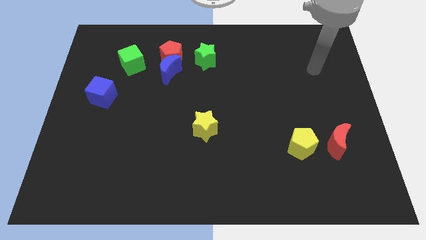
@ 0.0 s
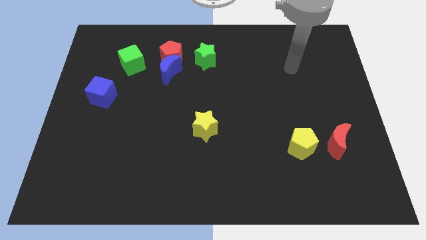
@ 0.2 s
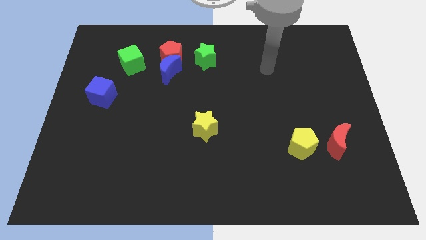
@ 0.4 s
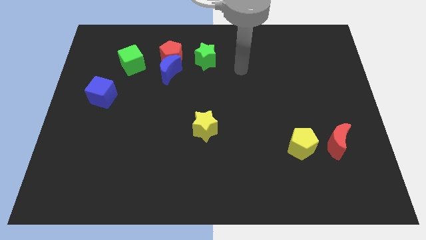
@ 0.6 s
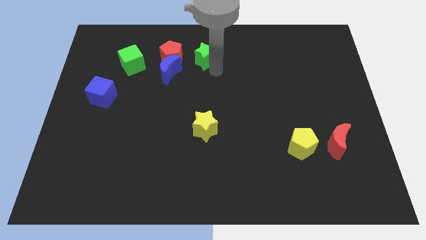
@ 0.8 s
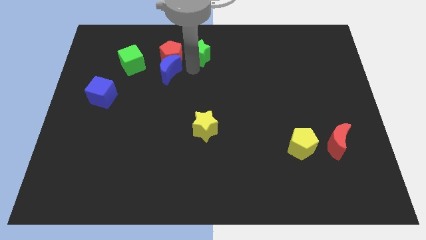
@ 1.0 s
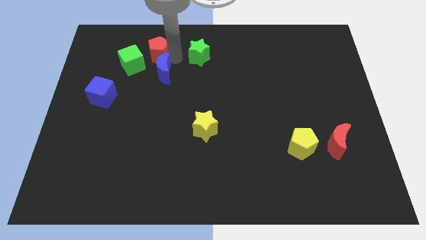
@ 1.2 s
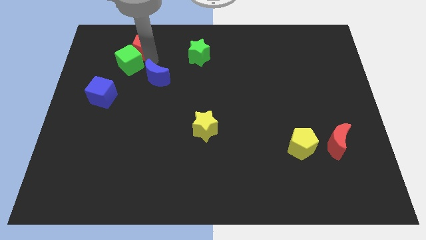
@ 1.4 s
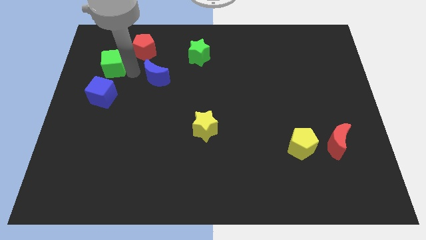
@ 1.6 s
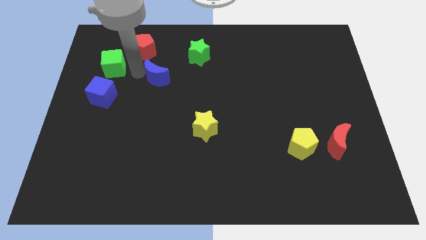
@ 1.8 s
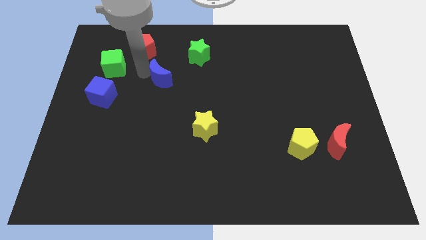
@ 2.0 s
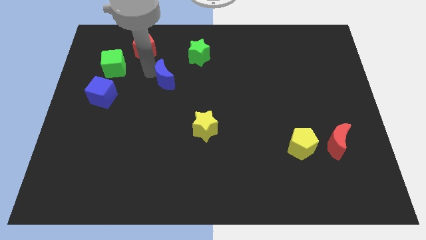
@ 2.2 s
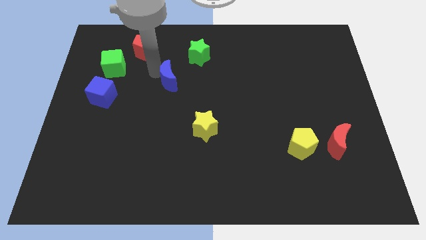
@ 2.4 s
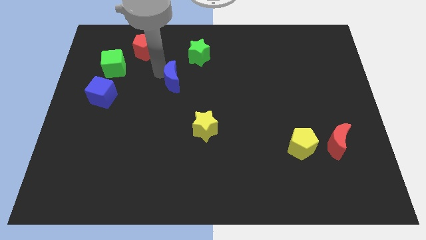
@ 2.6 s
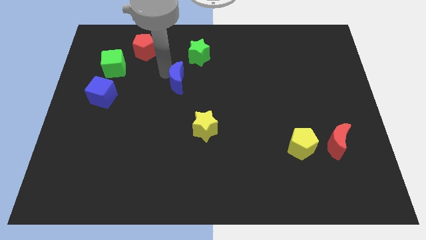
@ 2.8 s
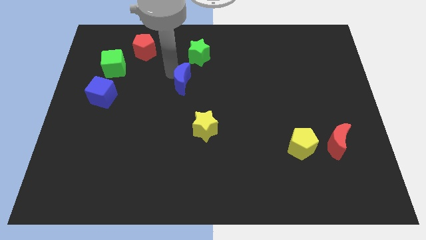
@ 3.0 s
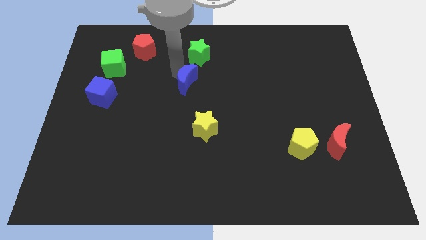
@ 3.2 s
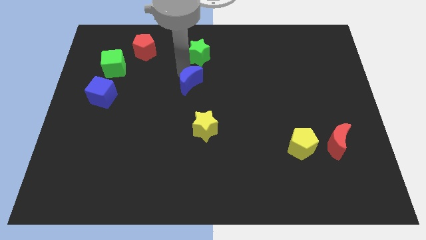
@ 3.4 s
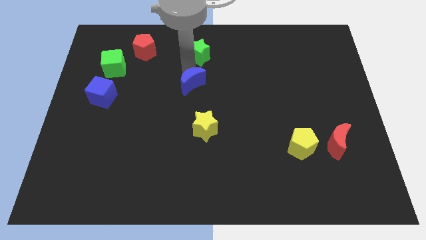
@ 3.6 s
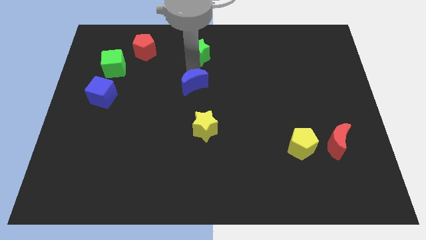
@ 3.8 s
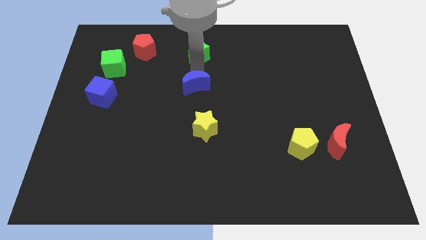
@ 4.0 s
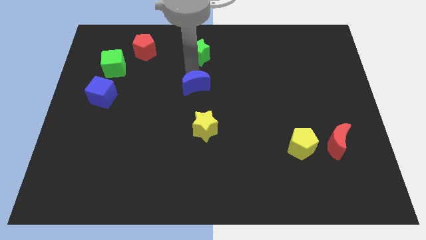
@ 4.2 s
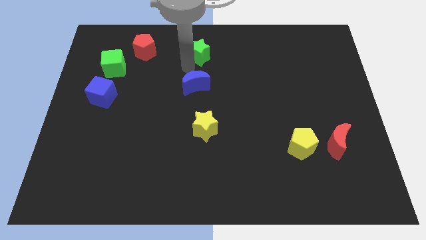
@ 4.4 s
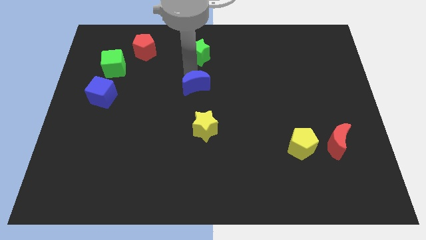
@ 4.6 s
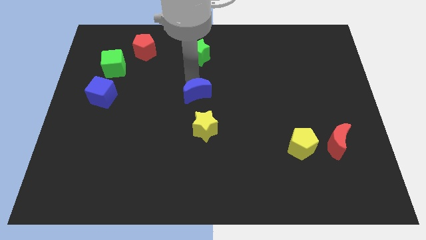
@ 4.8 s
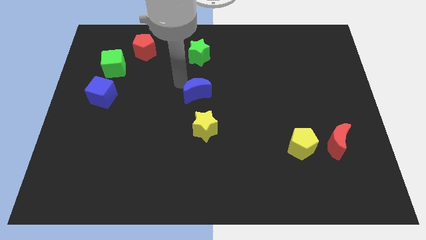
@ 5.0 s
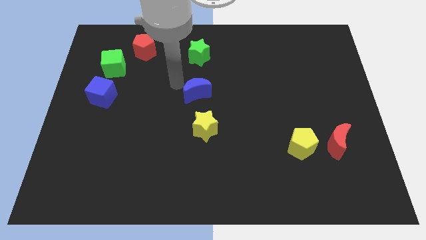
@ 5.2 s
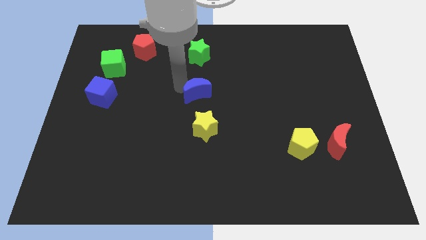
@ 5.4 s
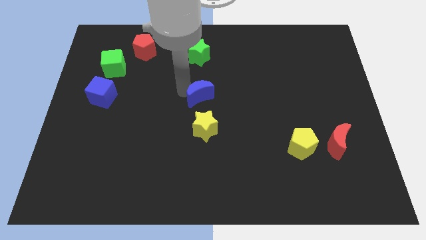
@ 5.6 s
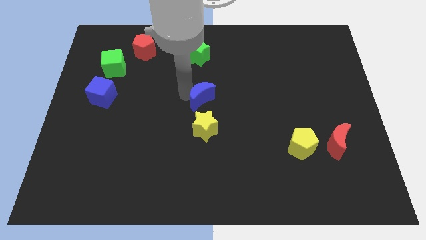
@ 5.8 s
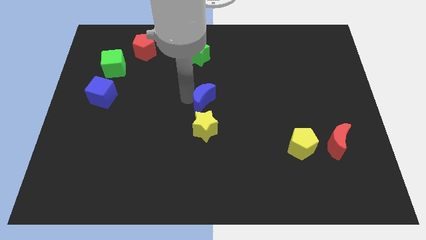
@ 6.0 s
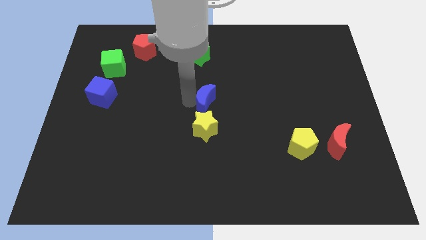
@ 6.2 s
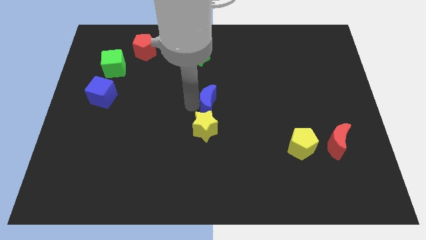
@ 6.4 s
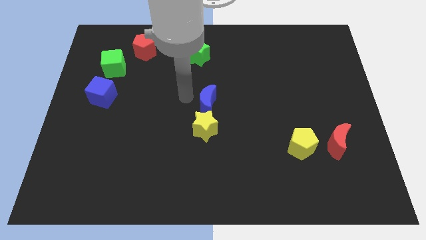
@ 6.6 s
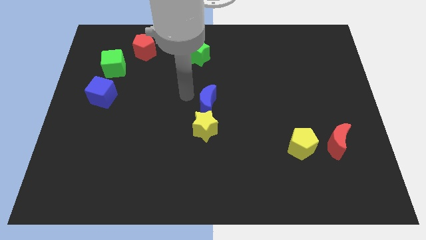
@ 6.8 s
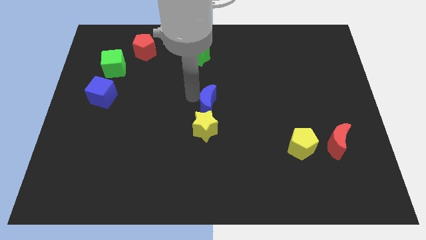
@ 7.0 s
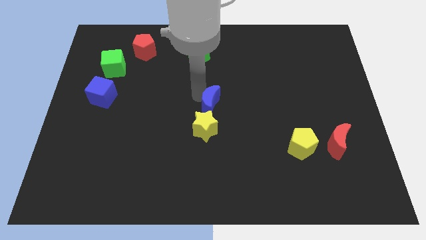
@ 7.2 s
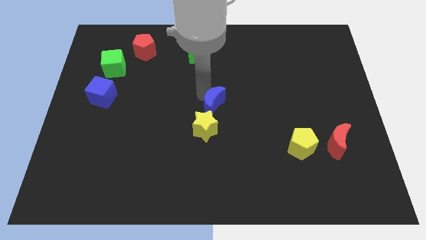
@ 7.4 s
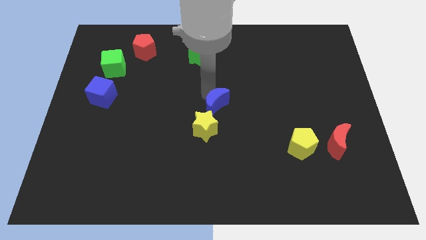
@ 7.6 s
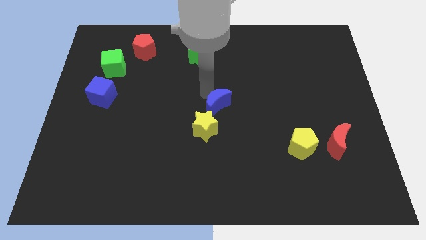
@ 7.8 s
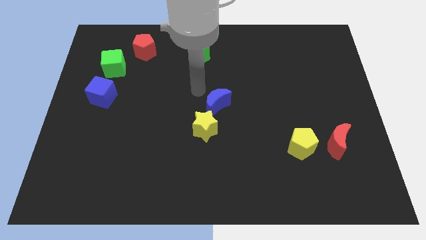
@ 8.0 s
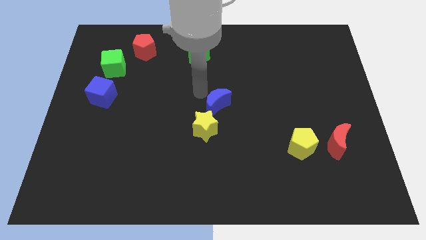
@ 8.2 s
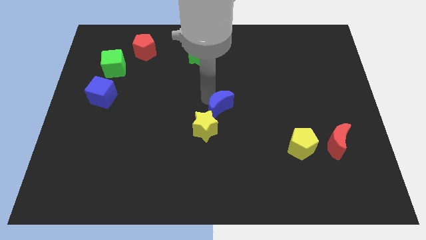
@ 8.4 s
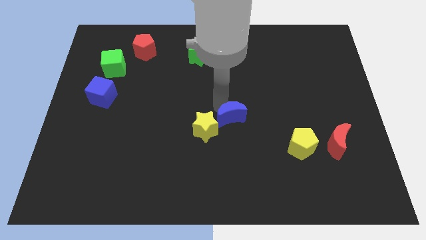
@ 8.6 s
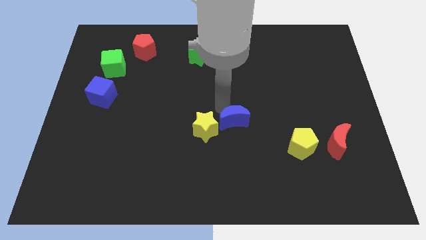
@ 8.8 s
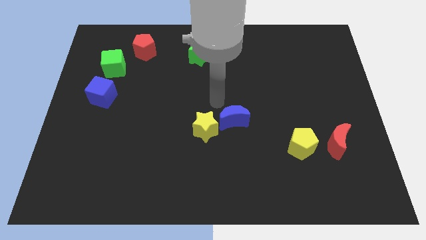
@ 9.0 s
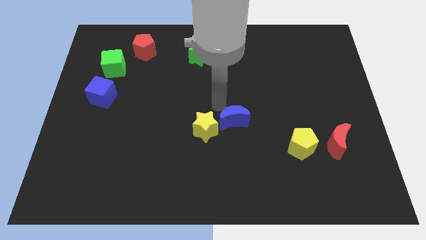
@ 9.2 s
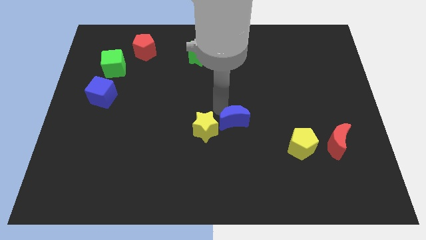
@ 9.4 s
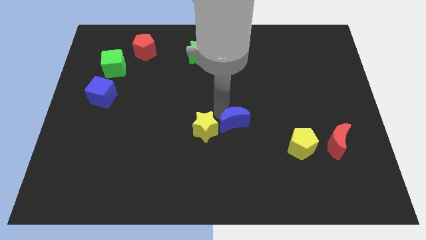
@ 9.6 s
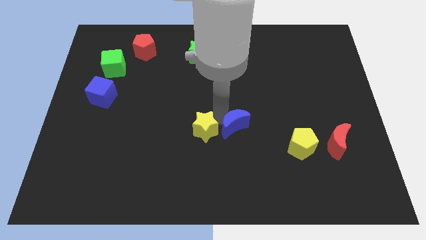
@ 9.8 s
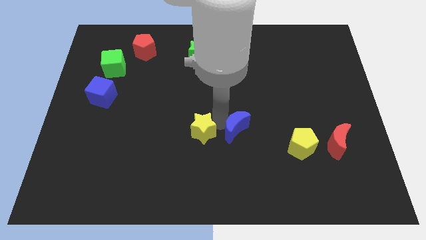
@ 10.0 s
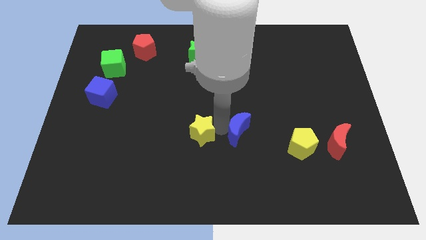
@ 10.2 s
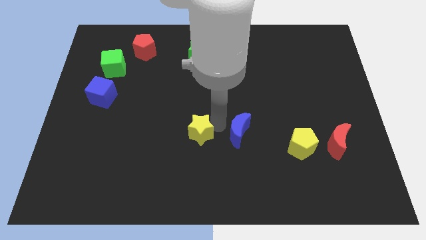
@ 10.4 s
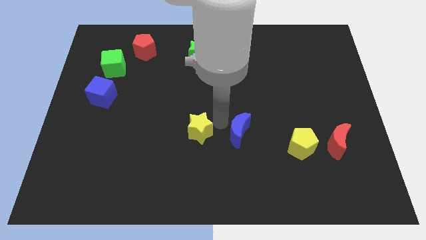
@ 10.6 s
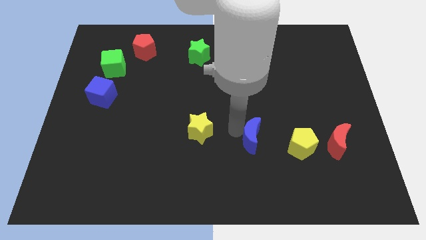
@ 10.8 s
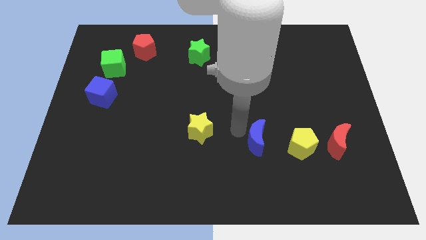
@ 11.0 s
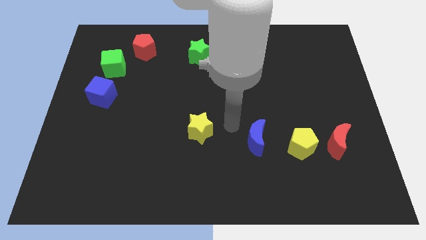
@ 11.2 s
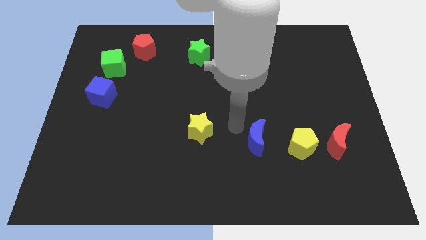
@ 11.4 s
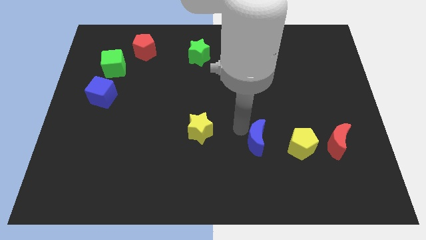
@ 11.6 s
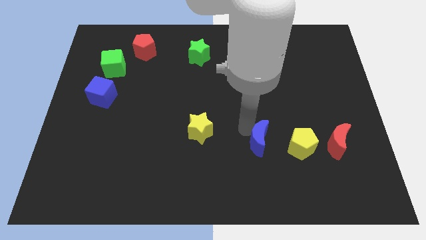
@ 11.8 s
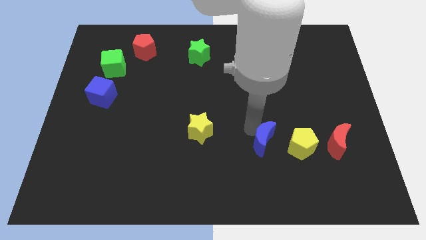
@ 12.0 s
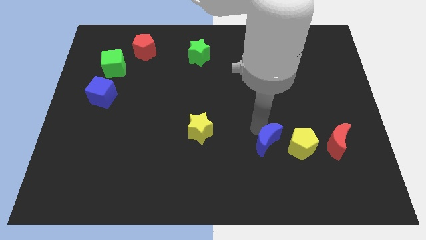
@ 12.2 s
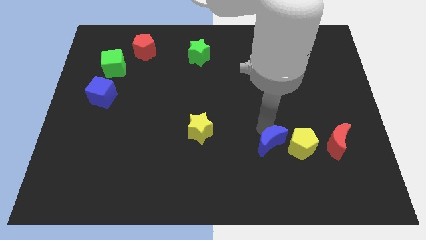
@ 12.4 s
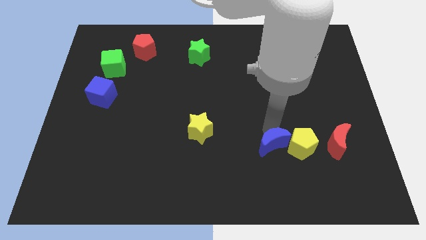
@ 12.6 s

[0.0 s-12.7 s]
move the blue moon diagonally down and to the left of the yellow pentagon

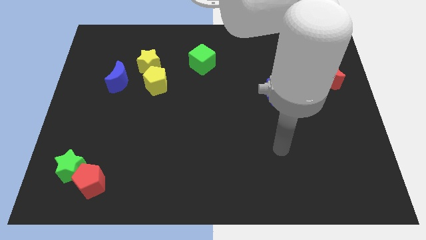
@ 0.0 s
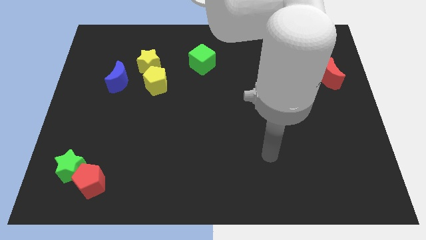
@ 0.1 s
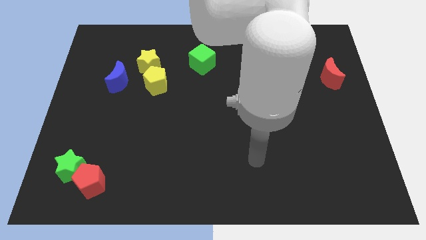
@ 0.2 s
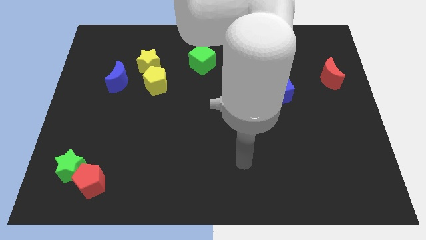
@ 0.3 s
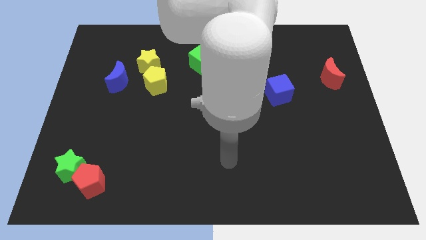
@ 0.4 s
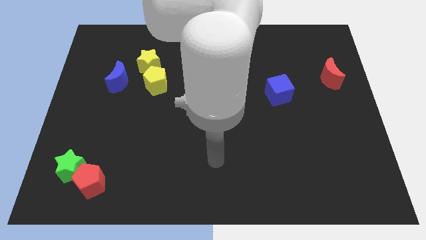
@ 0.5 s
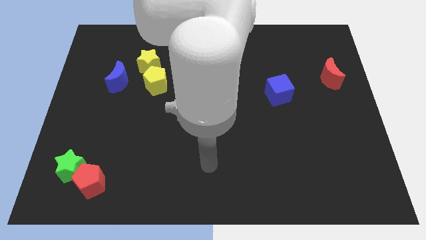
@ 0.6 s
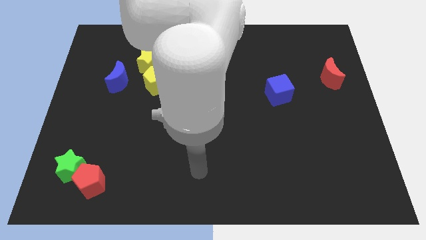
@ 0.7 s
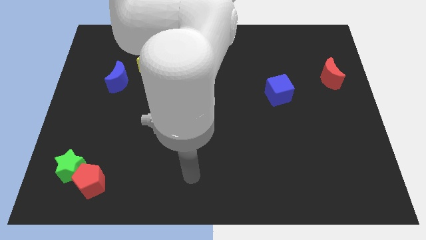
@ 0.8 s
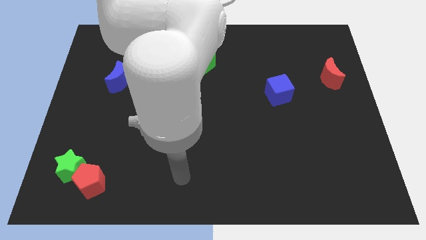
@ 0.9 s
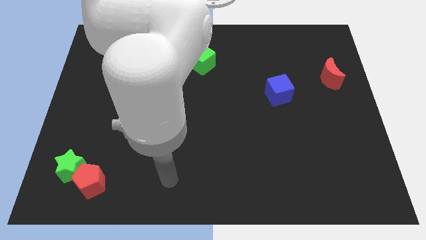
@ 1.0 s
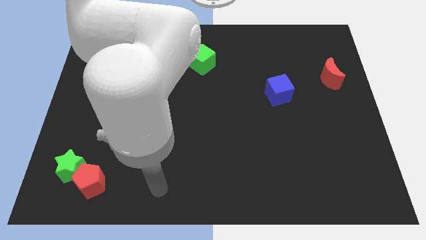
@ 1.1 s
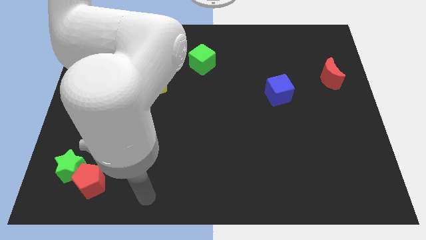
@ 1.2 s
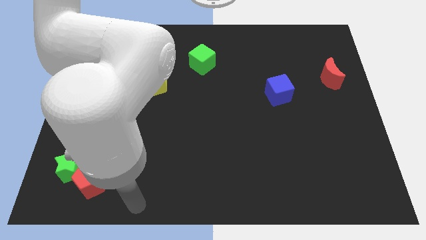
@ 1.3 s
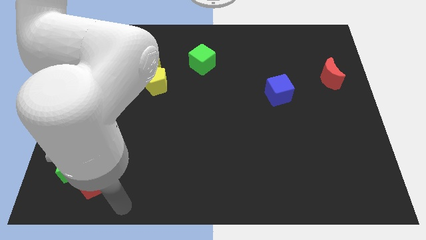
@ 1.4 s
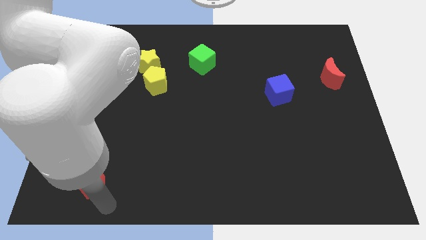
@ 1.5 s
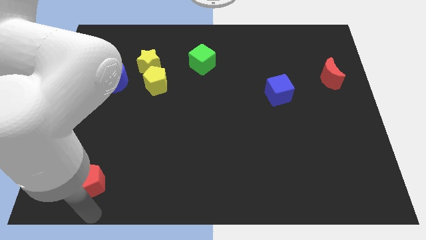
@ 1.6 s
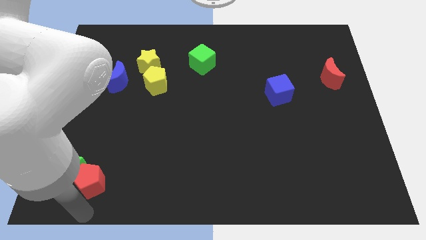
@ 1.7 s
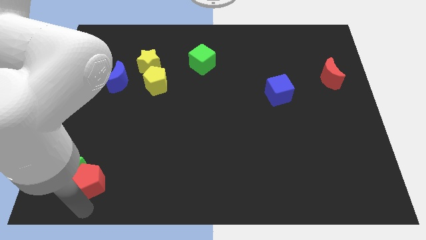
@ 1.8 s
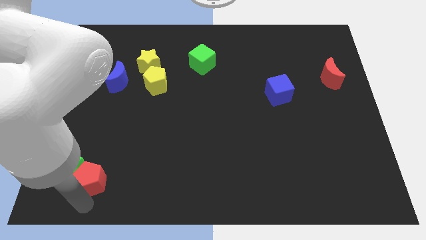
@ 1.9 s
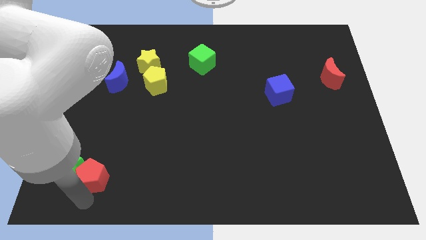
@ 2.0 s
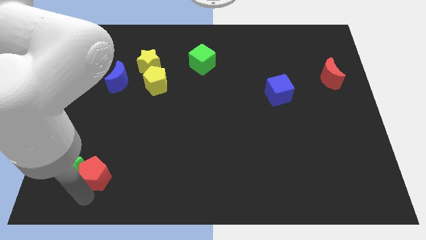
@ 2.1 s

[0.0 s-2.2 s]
move the red pentagon to the top right of the green star
